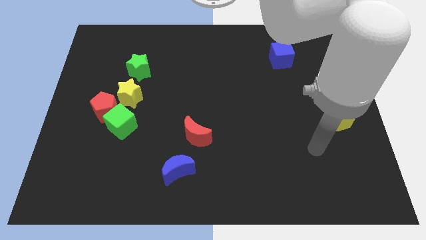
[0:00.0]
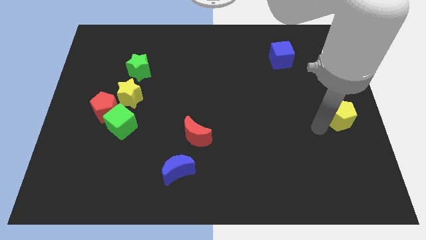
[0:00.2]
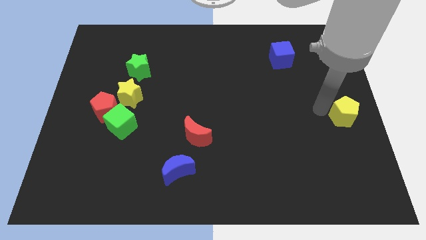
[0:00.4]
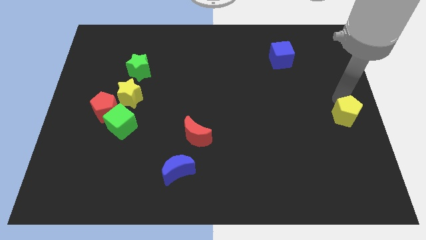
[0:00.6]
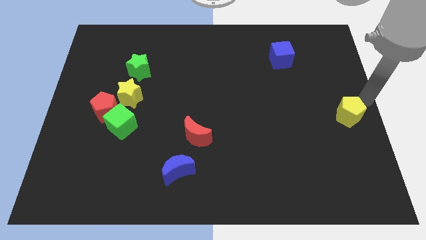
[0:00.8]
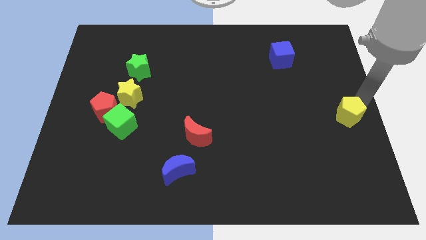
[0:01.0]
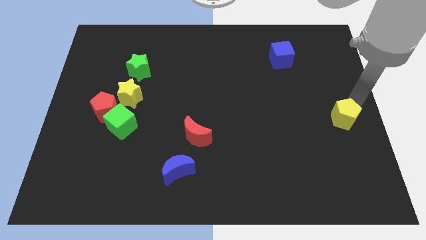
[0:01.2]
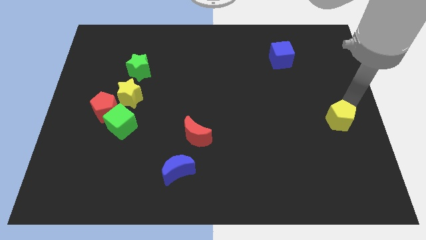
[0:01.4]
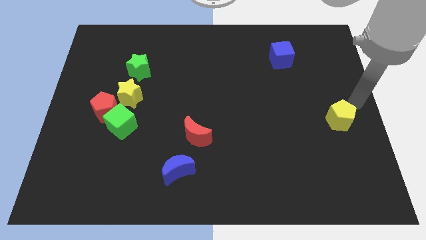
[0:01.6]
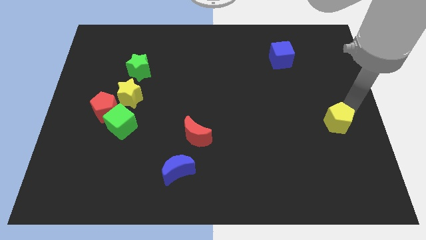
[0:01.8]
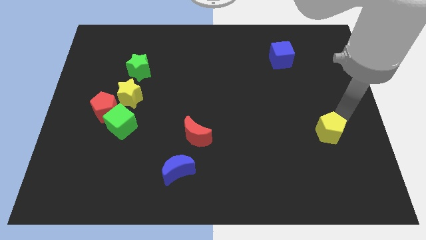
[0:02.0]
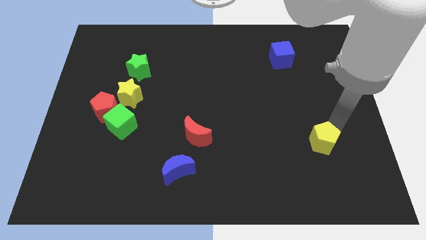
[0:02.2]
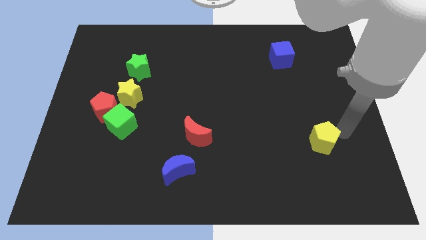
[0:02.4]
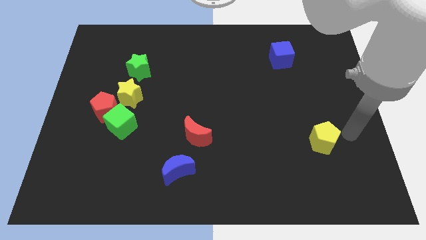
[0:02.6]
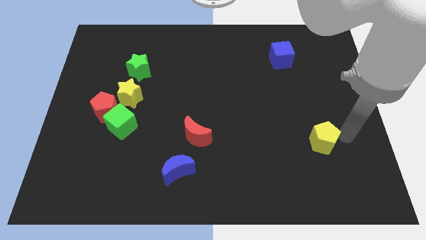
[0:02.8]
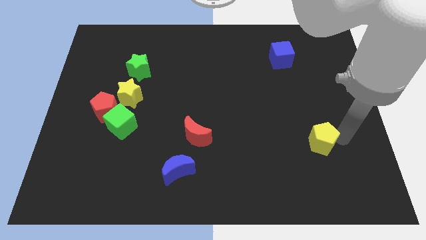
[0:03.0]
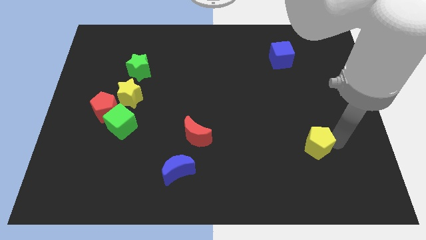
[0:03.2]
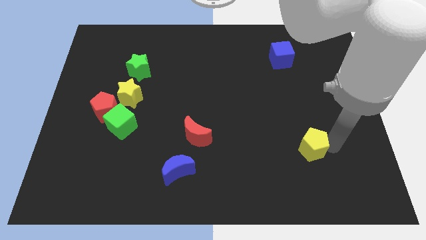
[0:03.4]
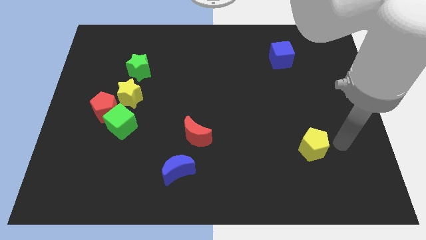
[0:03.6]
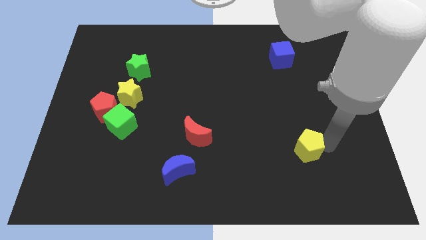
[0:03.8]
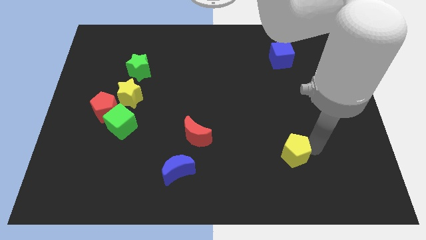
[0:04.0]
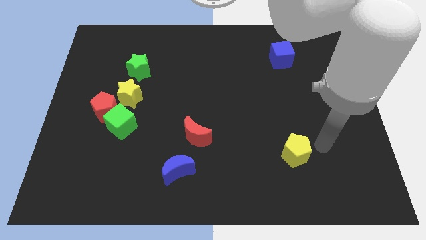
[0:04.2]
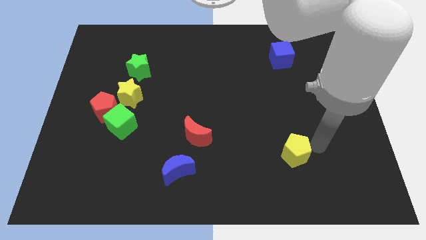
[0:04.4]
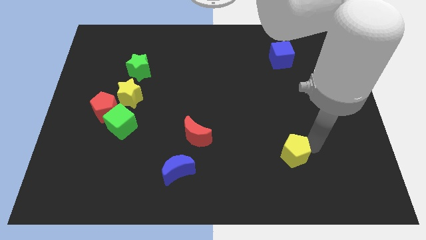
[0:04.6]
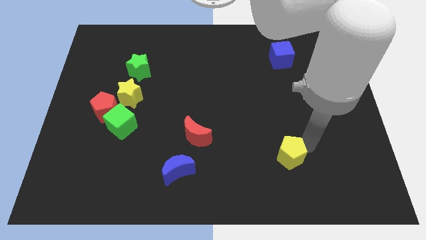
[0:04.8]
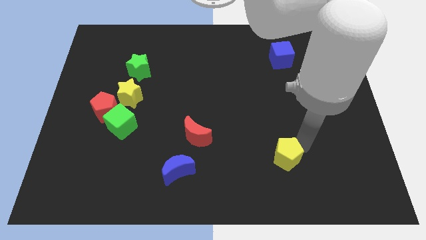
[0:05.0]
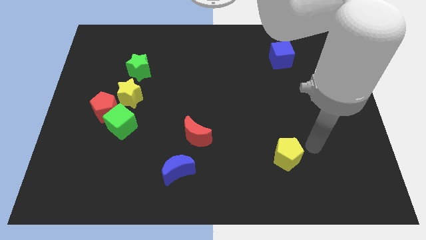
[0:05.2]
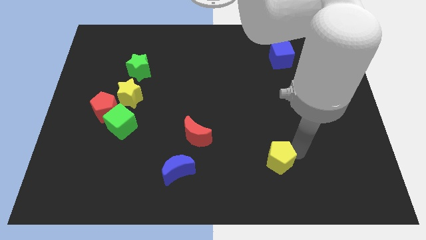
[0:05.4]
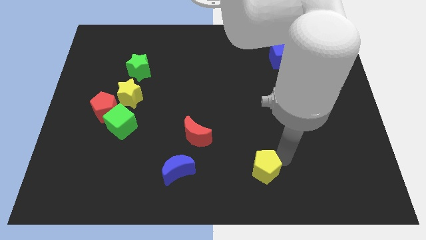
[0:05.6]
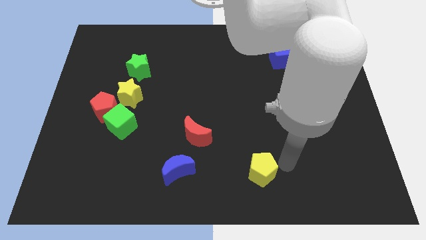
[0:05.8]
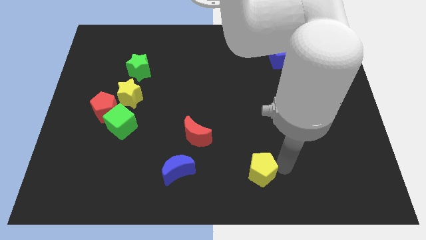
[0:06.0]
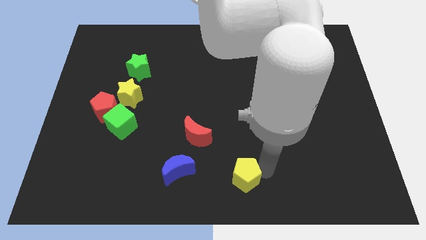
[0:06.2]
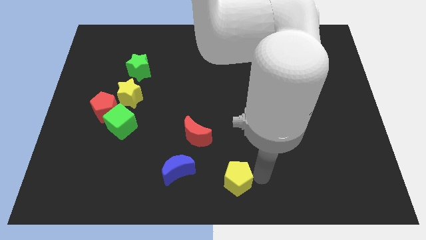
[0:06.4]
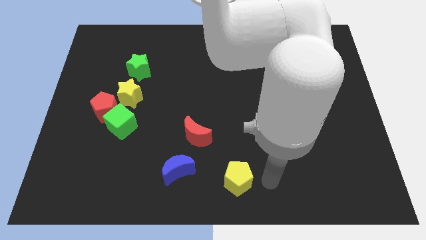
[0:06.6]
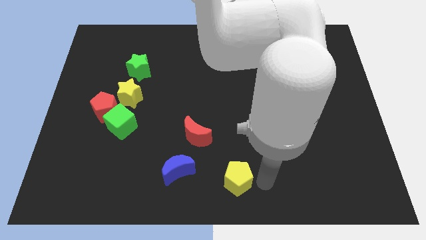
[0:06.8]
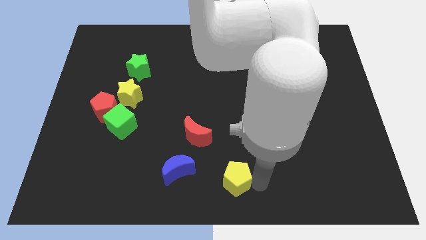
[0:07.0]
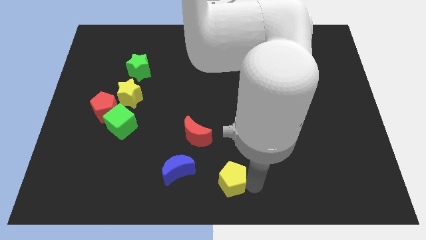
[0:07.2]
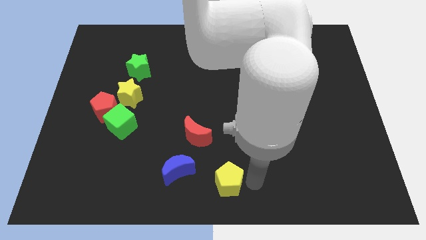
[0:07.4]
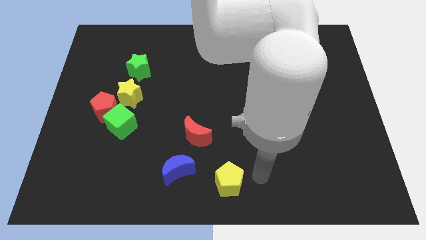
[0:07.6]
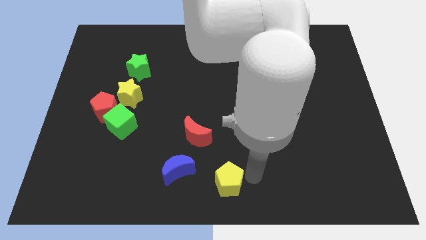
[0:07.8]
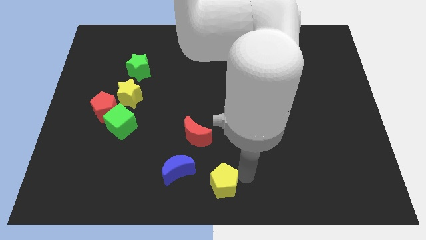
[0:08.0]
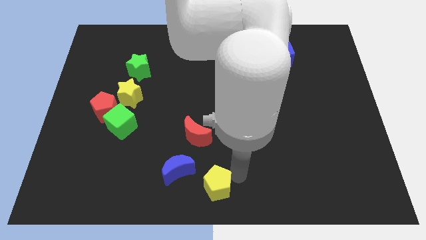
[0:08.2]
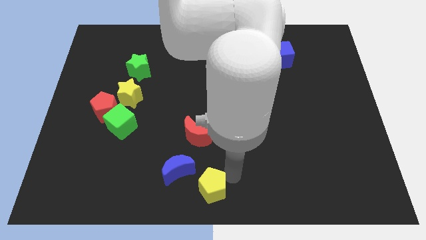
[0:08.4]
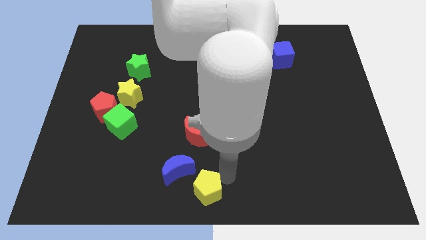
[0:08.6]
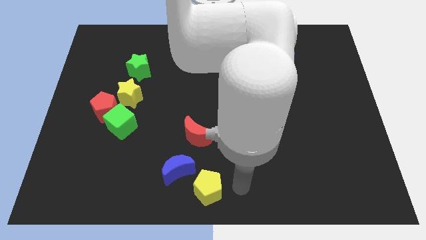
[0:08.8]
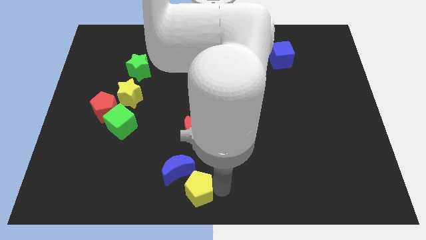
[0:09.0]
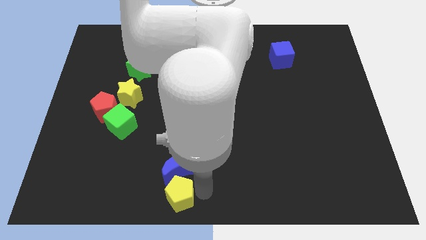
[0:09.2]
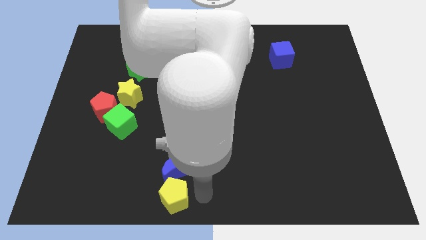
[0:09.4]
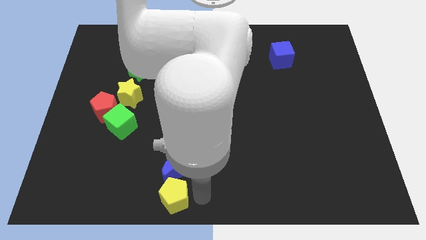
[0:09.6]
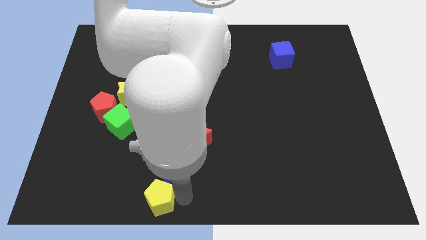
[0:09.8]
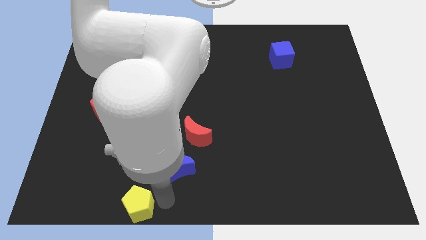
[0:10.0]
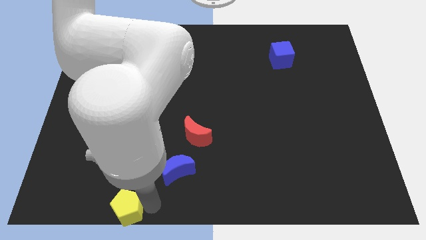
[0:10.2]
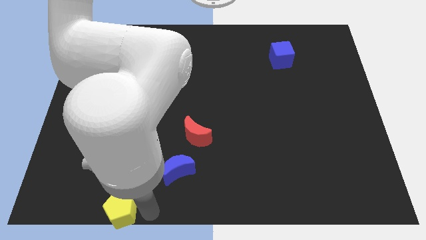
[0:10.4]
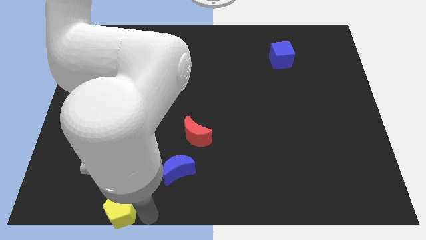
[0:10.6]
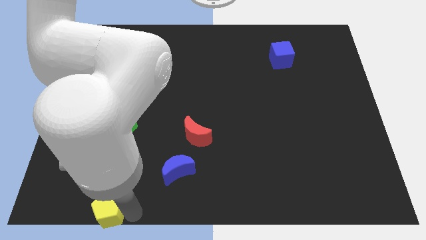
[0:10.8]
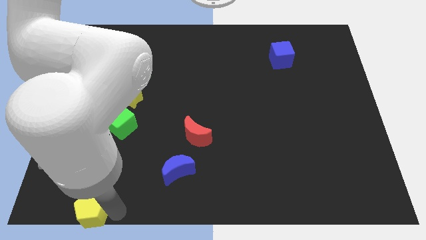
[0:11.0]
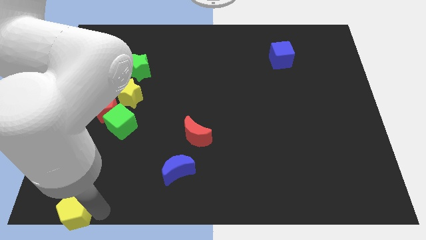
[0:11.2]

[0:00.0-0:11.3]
move the yellow pentagon to the bottom left

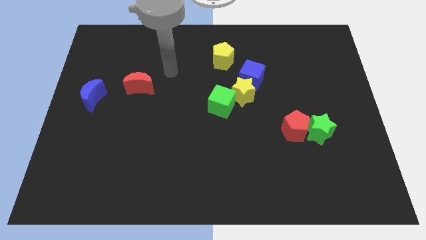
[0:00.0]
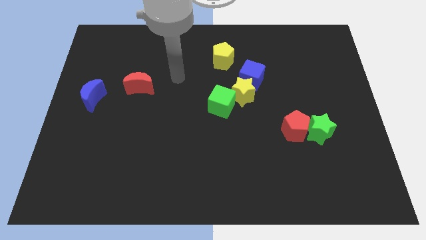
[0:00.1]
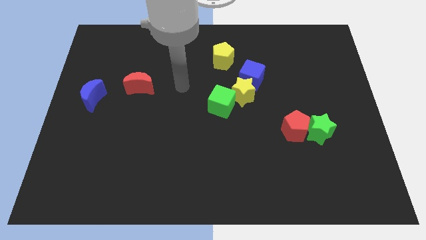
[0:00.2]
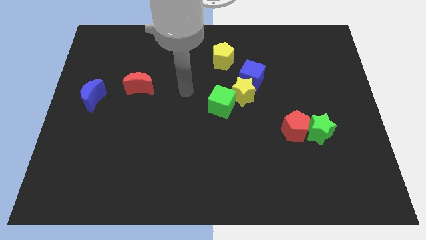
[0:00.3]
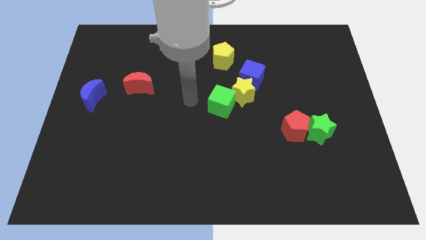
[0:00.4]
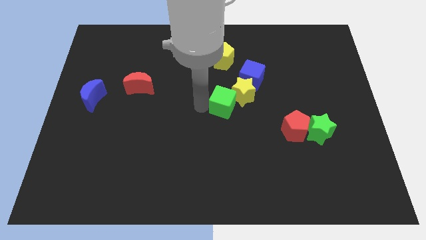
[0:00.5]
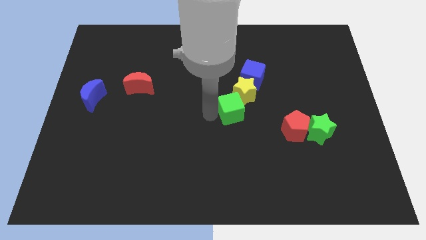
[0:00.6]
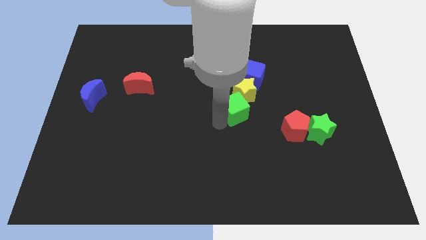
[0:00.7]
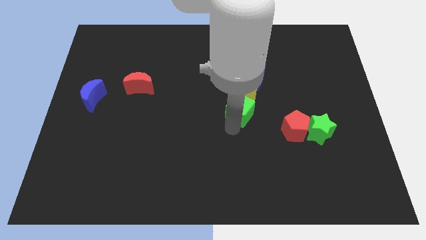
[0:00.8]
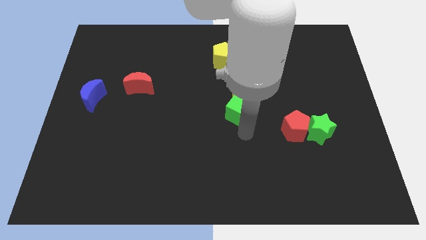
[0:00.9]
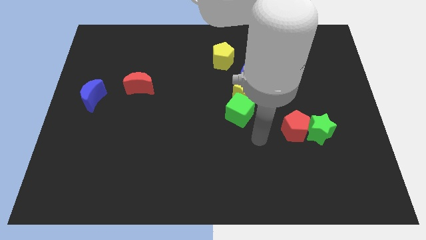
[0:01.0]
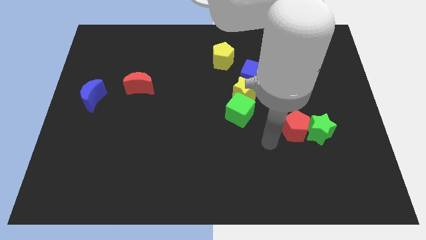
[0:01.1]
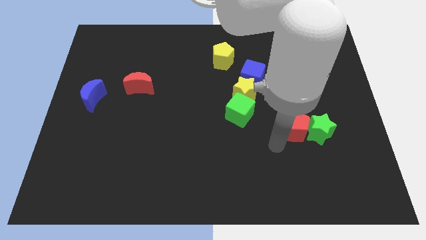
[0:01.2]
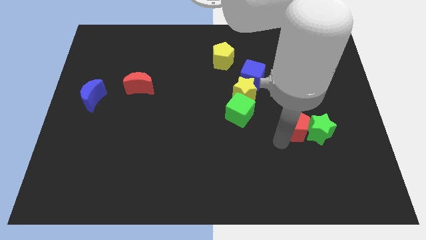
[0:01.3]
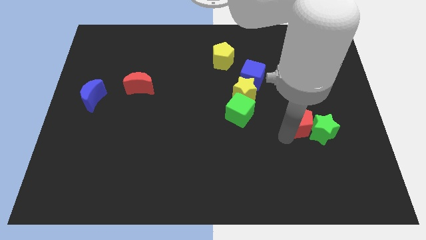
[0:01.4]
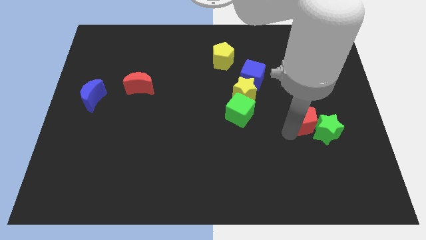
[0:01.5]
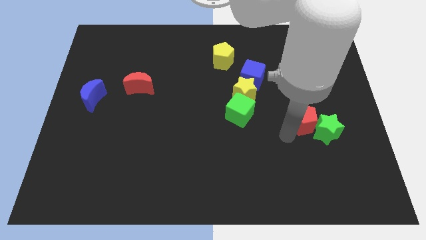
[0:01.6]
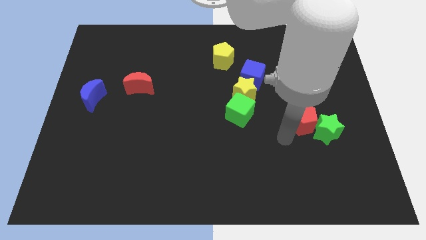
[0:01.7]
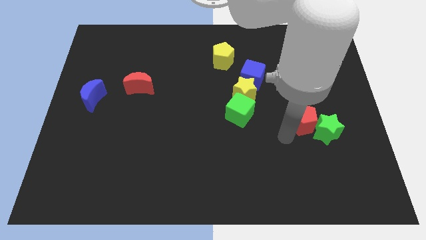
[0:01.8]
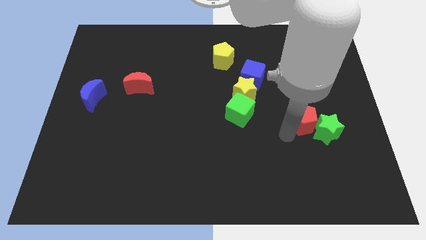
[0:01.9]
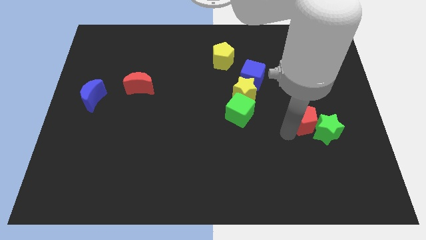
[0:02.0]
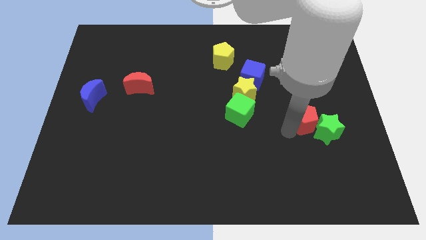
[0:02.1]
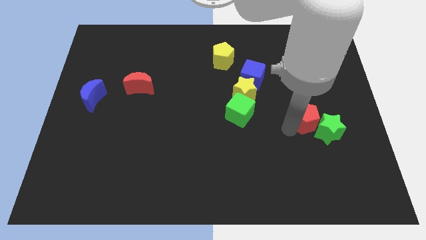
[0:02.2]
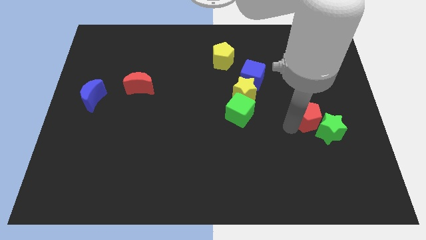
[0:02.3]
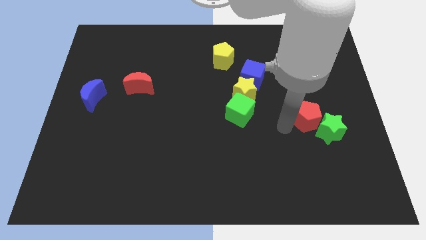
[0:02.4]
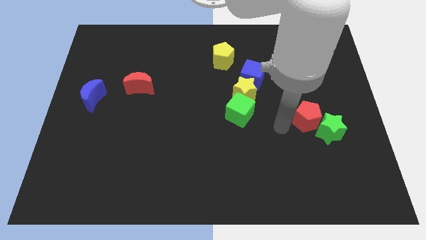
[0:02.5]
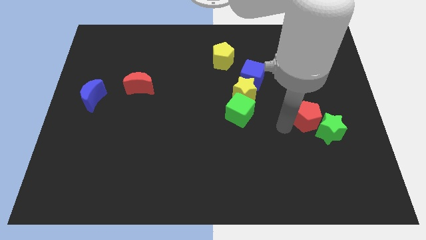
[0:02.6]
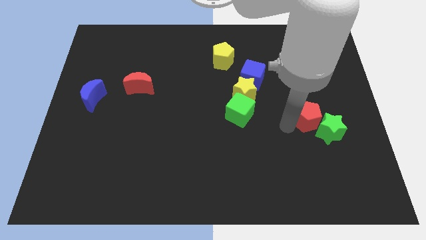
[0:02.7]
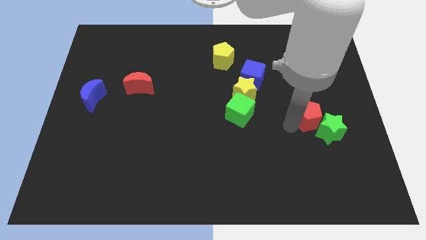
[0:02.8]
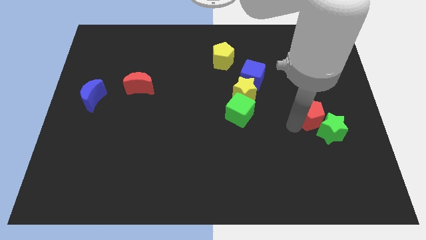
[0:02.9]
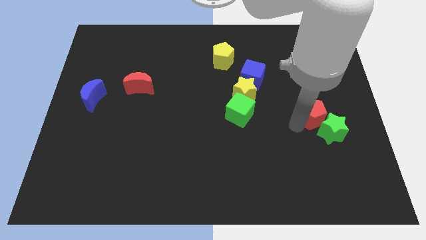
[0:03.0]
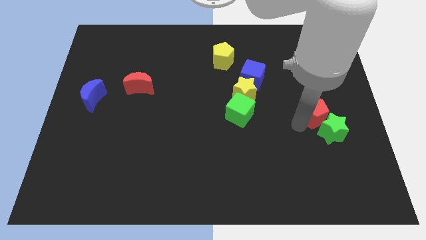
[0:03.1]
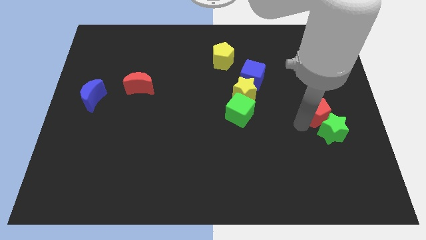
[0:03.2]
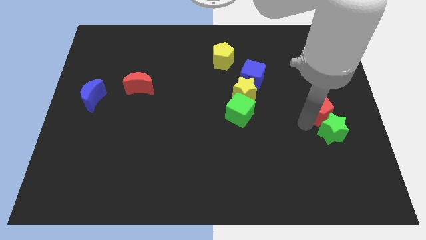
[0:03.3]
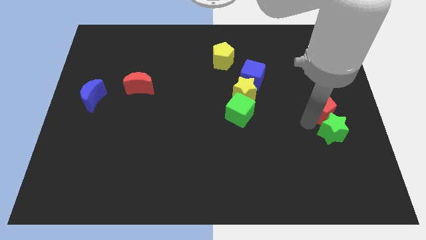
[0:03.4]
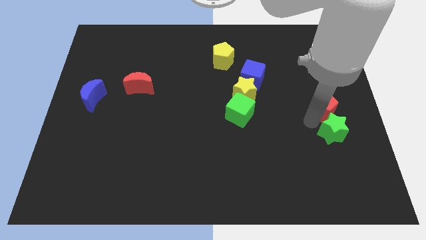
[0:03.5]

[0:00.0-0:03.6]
move the red pentagon to the right side
